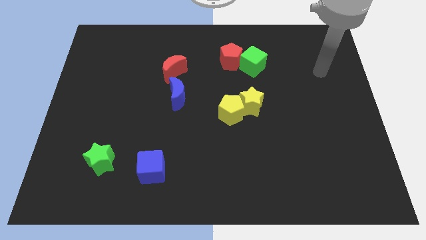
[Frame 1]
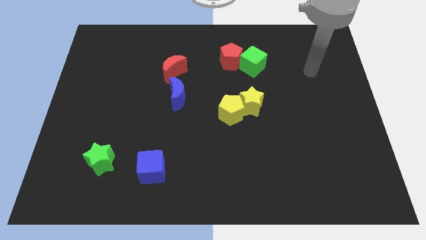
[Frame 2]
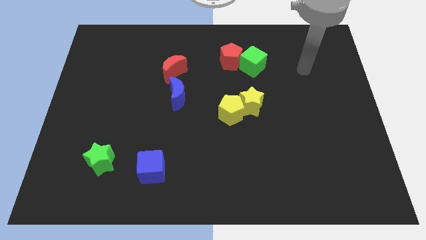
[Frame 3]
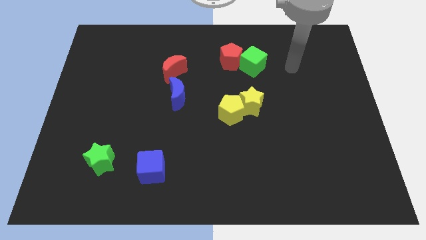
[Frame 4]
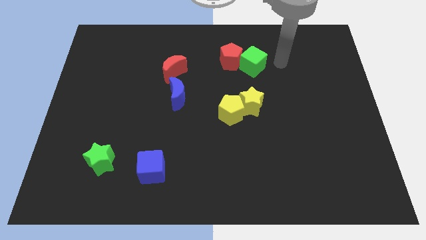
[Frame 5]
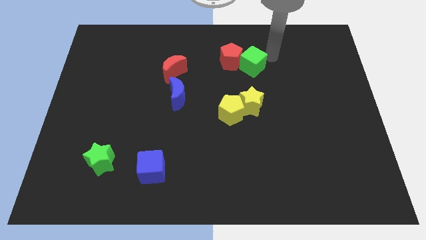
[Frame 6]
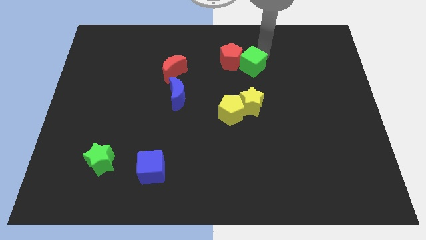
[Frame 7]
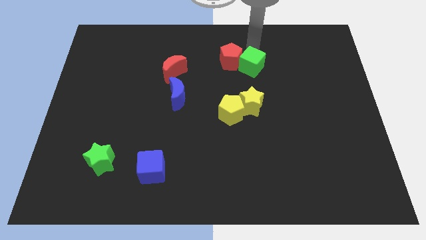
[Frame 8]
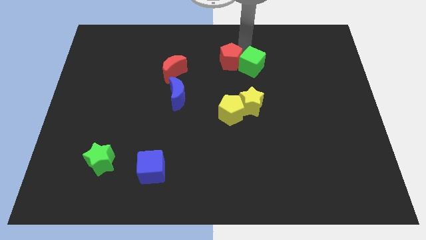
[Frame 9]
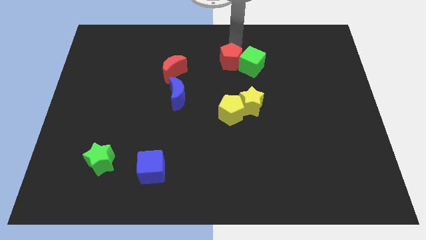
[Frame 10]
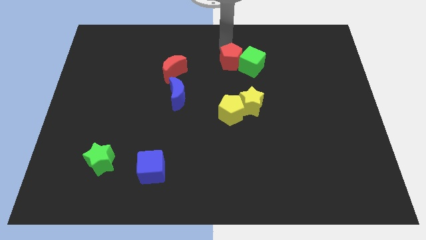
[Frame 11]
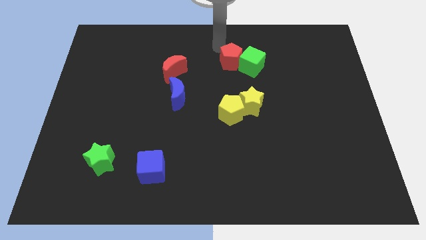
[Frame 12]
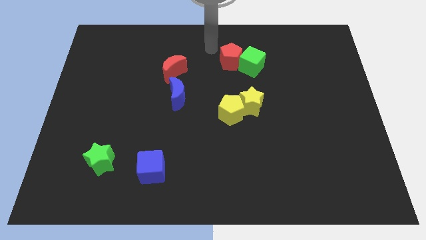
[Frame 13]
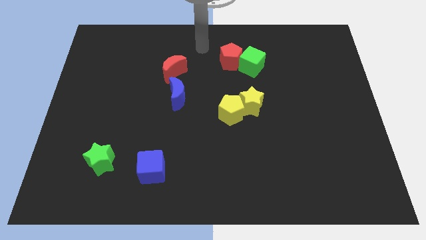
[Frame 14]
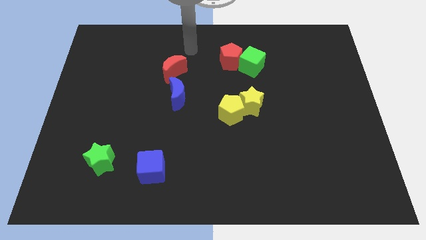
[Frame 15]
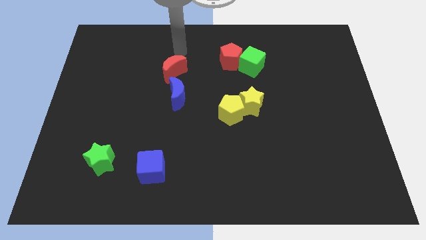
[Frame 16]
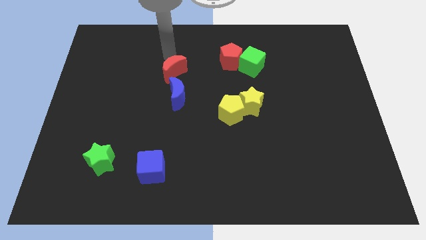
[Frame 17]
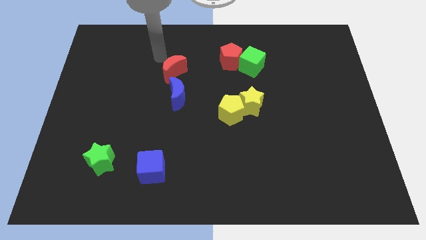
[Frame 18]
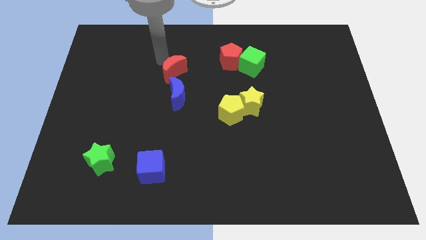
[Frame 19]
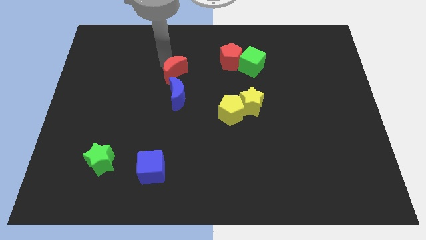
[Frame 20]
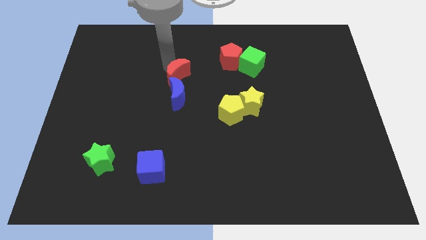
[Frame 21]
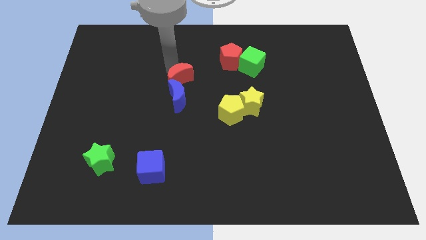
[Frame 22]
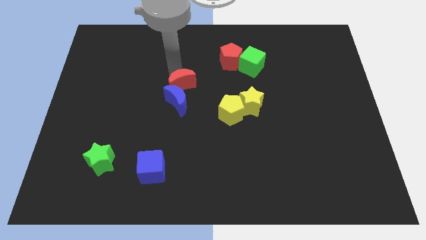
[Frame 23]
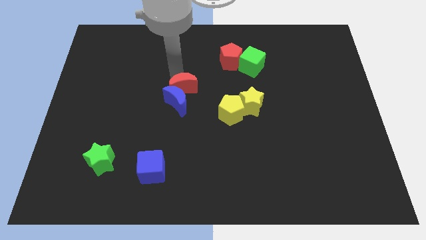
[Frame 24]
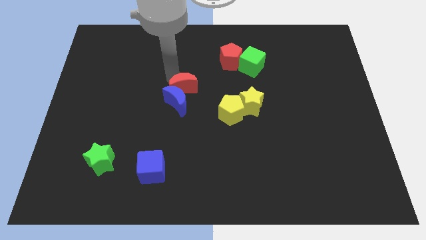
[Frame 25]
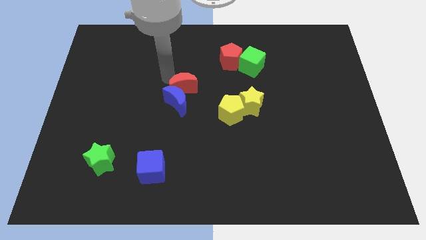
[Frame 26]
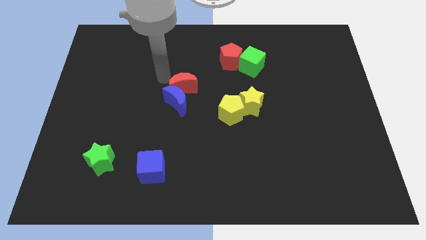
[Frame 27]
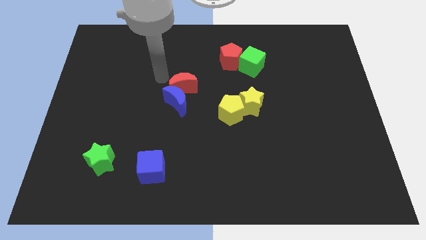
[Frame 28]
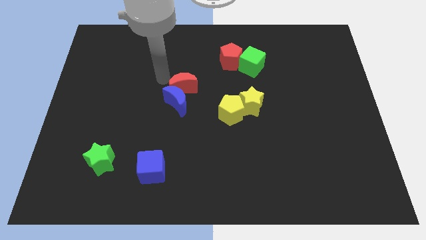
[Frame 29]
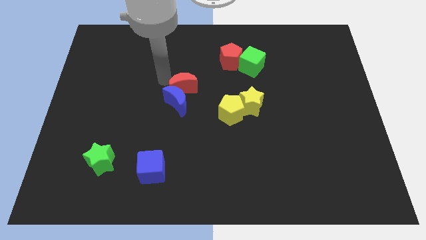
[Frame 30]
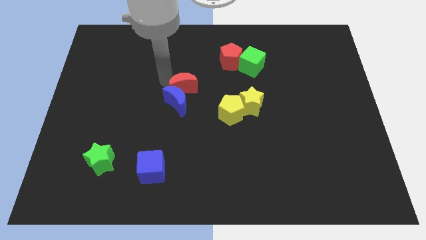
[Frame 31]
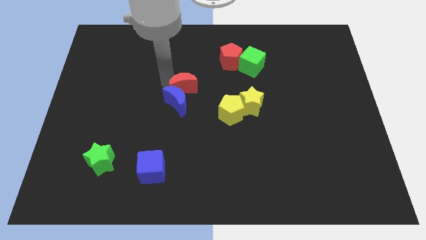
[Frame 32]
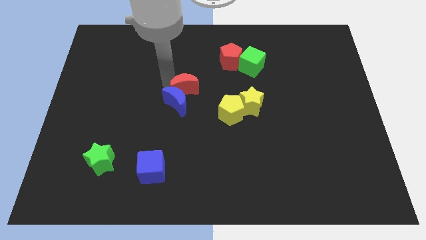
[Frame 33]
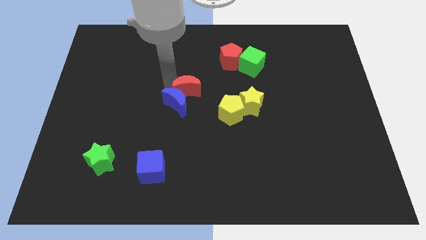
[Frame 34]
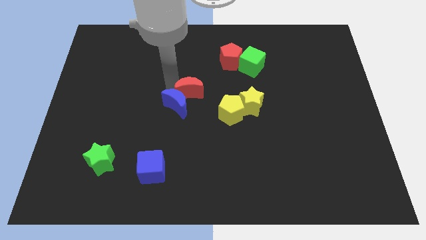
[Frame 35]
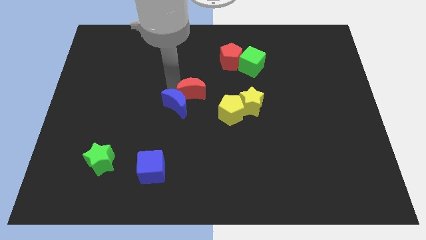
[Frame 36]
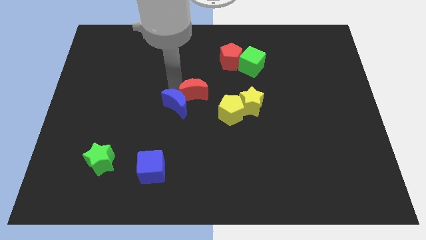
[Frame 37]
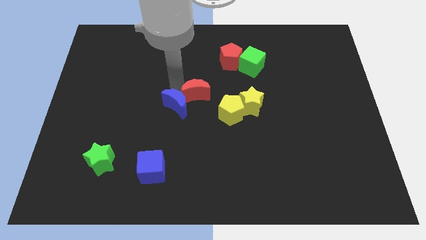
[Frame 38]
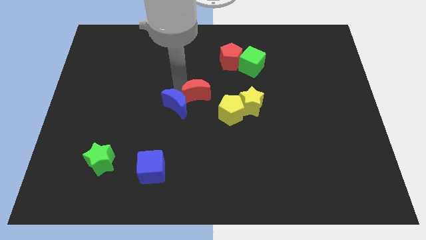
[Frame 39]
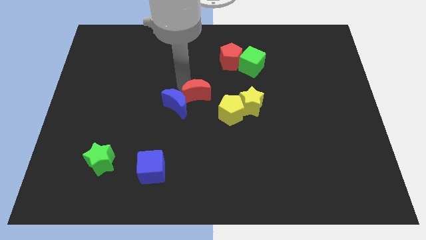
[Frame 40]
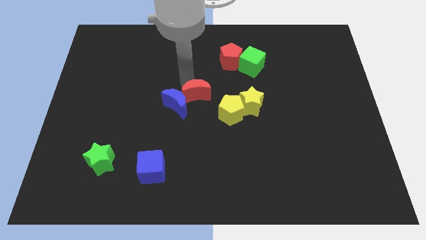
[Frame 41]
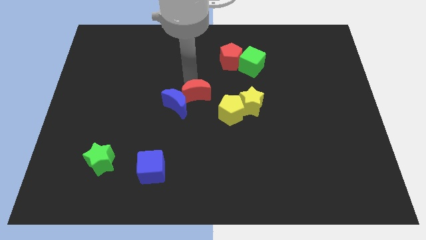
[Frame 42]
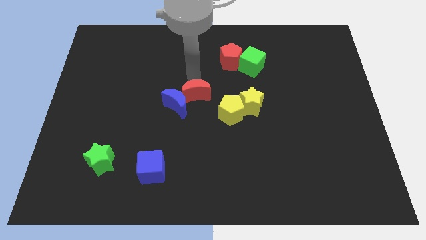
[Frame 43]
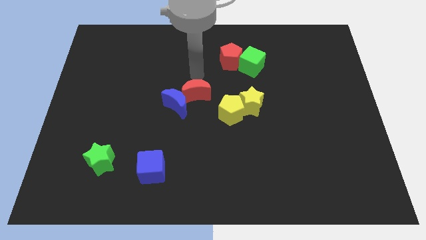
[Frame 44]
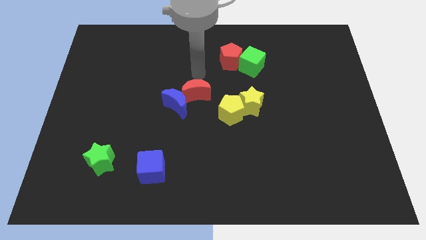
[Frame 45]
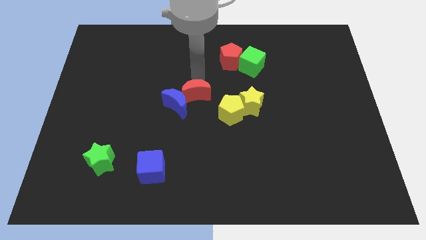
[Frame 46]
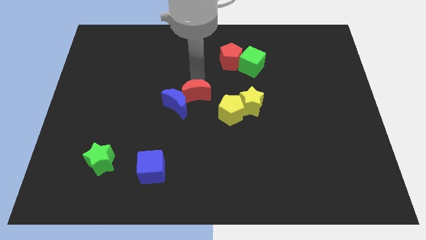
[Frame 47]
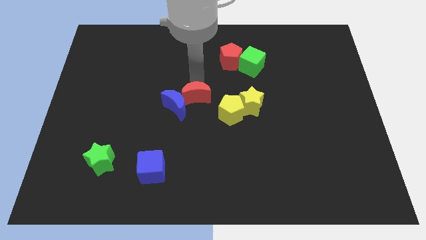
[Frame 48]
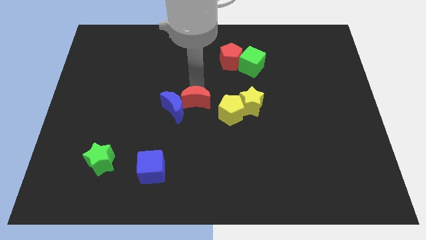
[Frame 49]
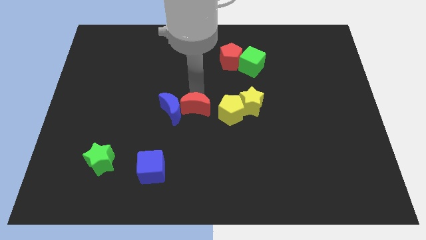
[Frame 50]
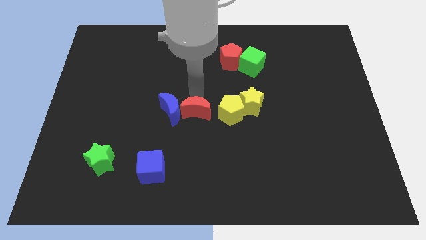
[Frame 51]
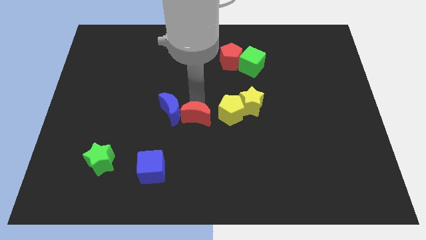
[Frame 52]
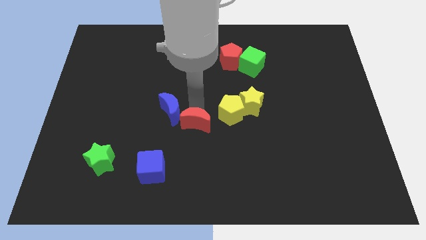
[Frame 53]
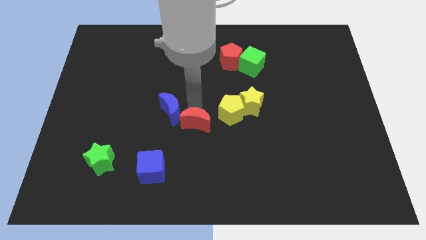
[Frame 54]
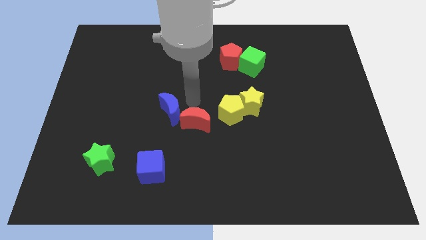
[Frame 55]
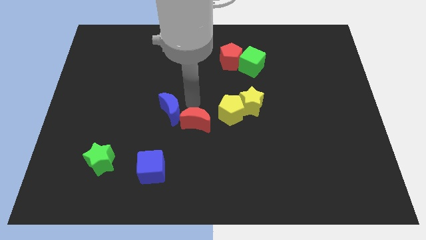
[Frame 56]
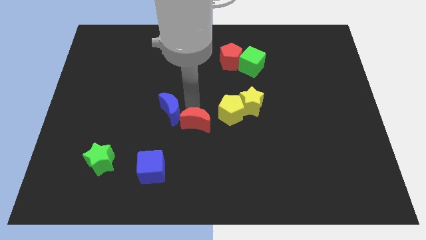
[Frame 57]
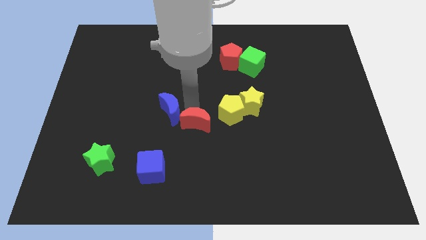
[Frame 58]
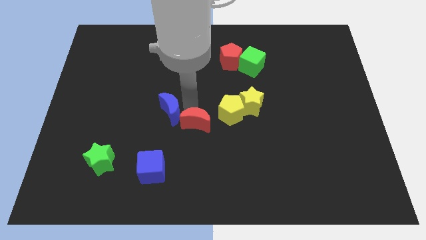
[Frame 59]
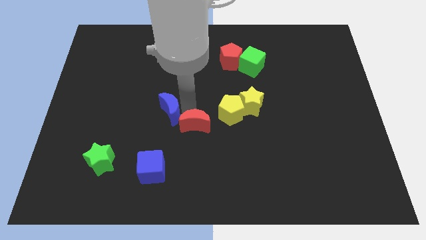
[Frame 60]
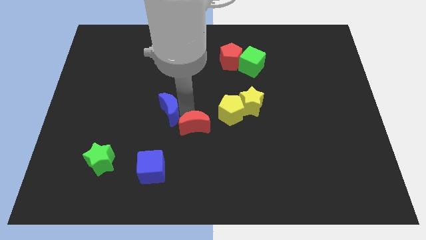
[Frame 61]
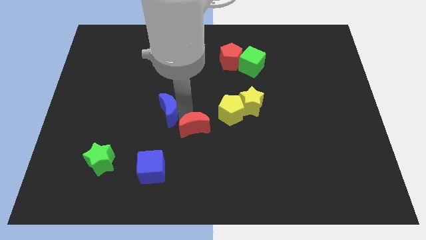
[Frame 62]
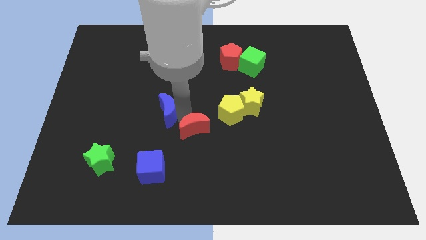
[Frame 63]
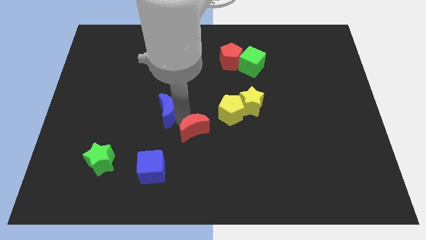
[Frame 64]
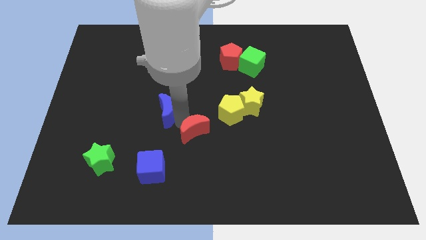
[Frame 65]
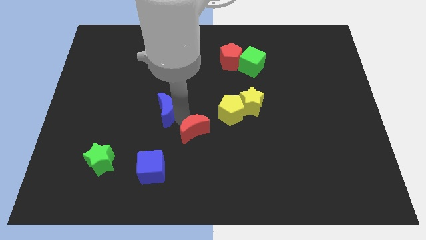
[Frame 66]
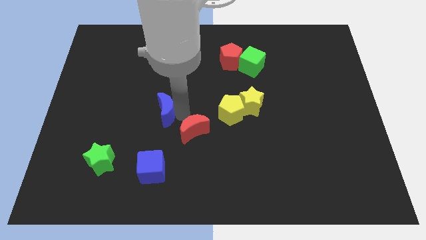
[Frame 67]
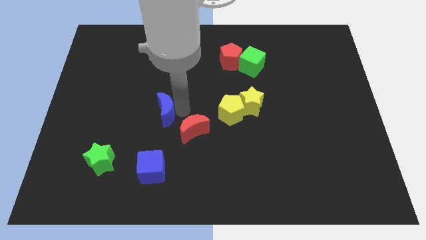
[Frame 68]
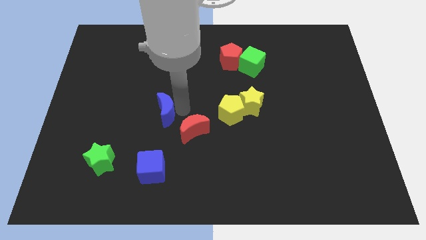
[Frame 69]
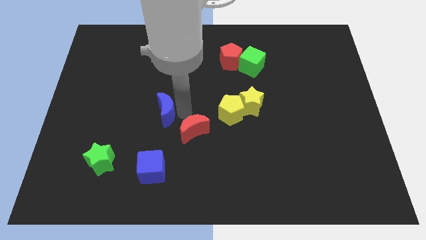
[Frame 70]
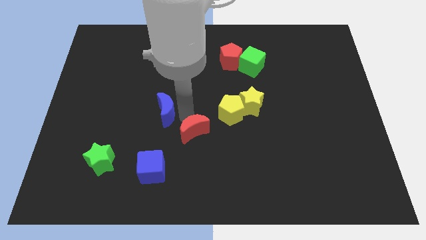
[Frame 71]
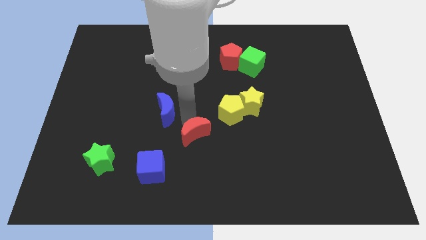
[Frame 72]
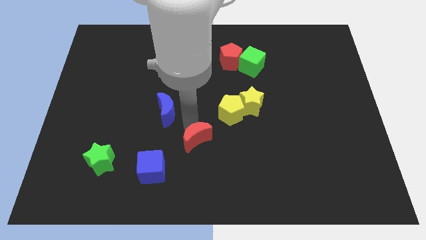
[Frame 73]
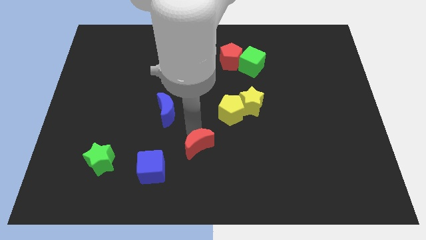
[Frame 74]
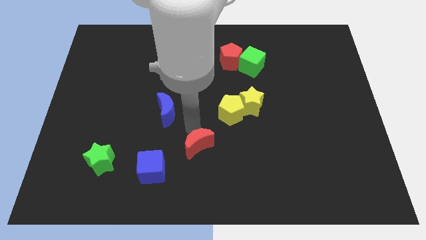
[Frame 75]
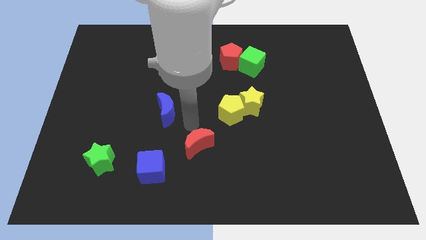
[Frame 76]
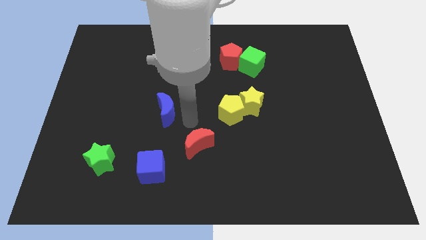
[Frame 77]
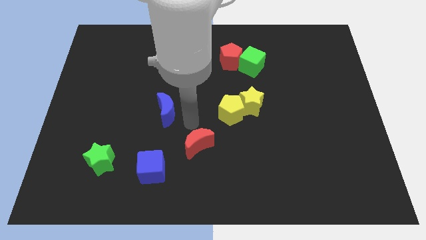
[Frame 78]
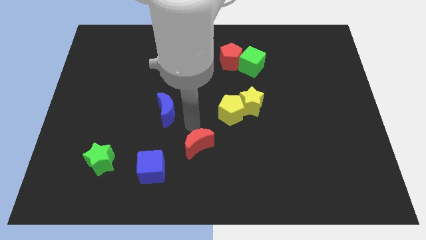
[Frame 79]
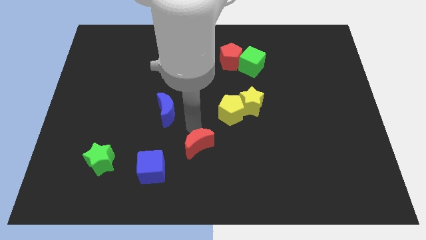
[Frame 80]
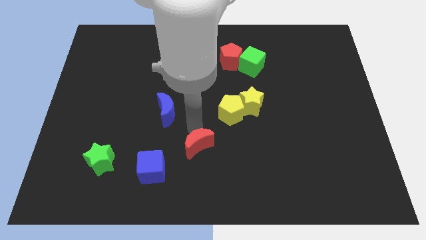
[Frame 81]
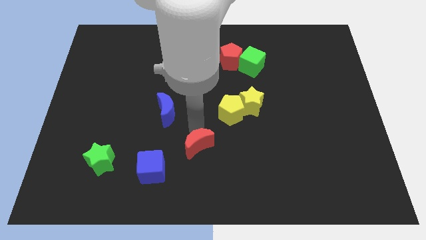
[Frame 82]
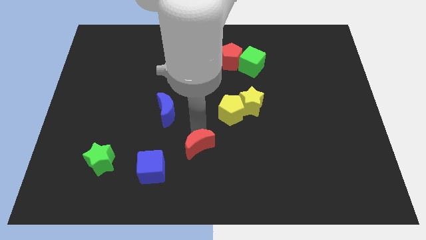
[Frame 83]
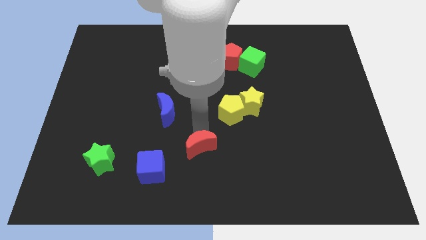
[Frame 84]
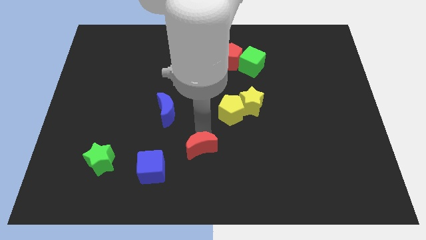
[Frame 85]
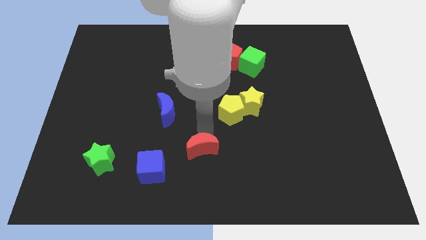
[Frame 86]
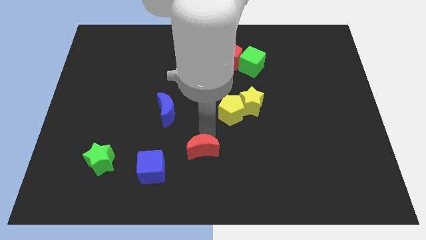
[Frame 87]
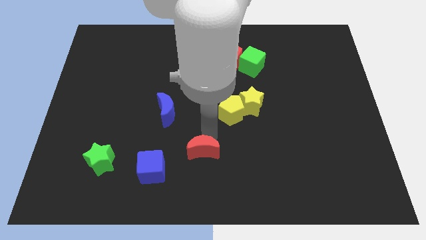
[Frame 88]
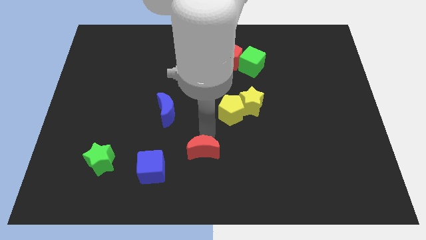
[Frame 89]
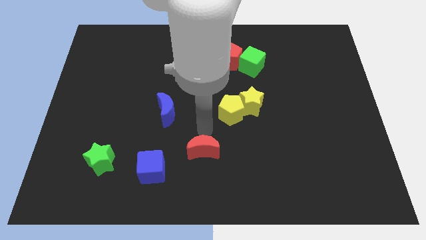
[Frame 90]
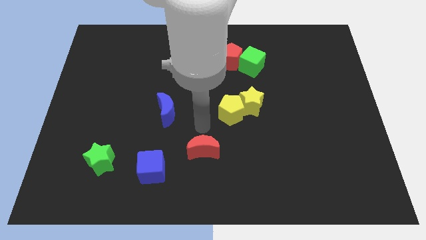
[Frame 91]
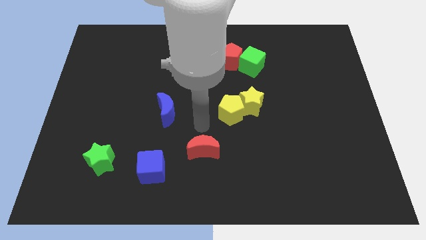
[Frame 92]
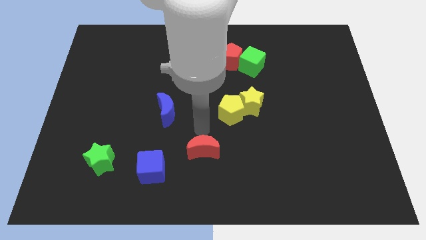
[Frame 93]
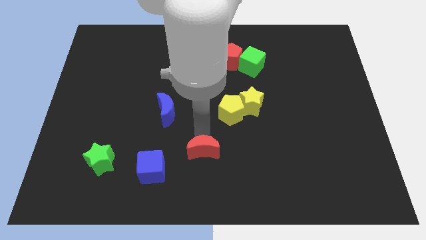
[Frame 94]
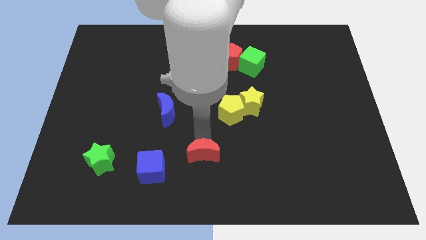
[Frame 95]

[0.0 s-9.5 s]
slide the red moon to the bottom
